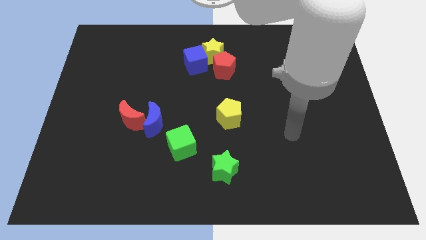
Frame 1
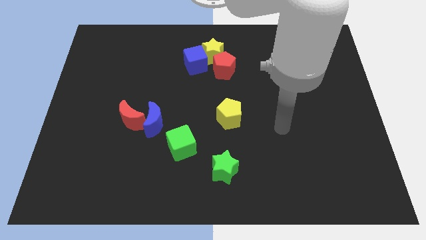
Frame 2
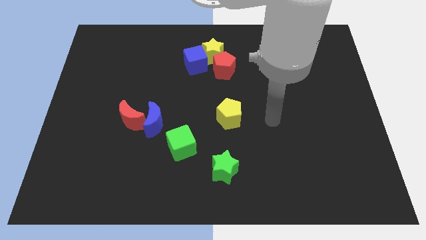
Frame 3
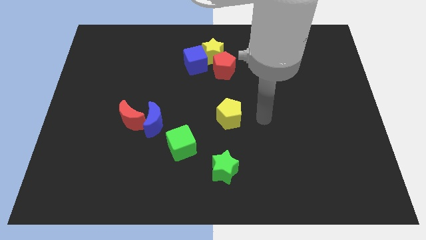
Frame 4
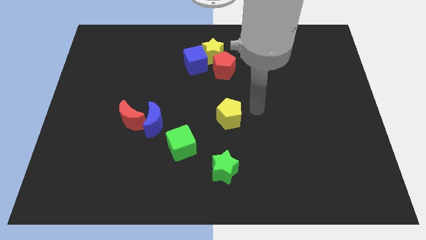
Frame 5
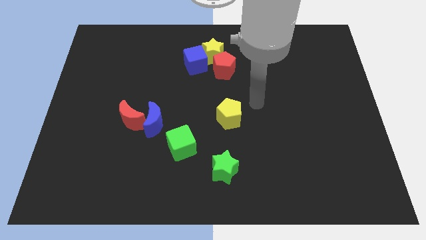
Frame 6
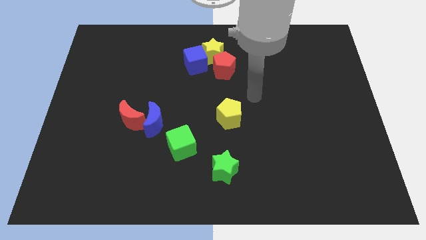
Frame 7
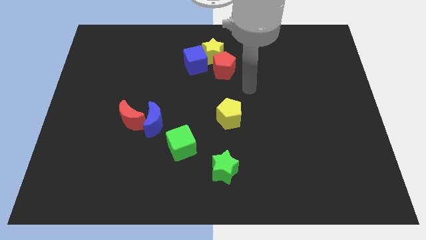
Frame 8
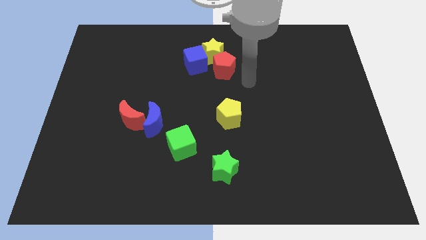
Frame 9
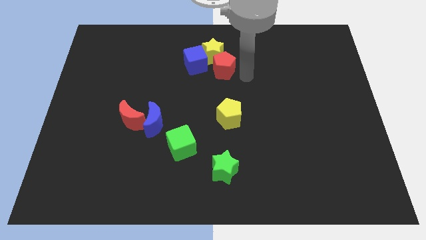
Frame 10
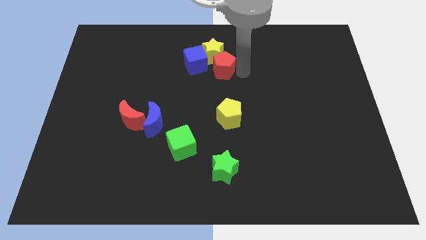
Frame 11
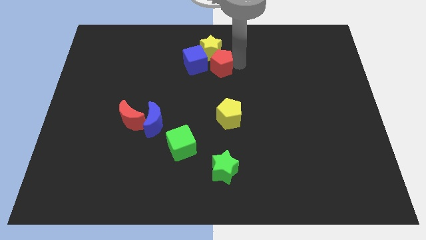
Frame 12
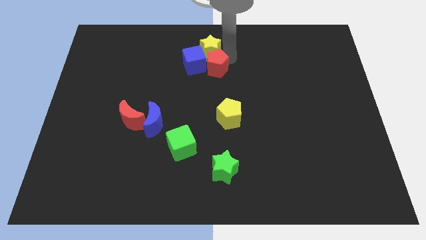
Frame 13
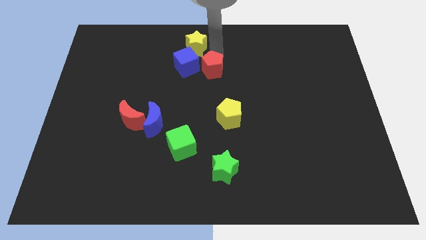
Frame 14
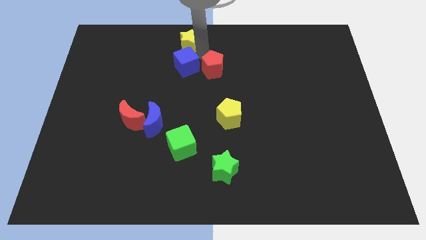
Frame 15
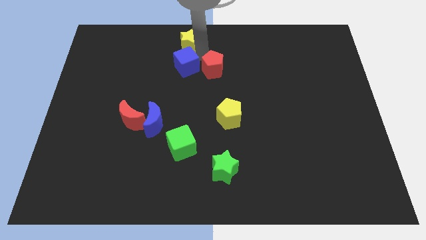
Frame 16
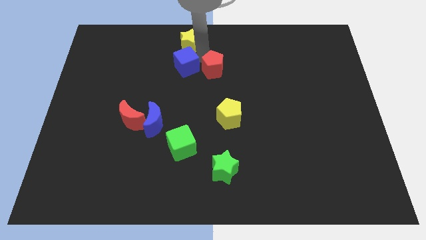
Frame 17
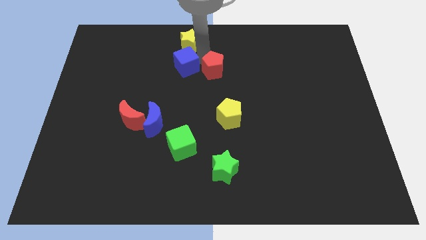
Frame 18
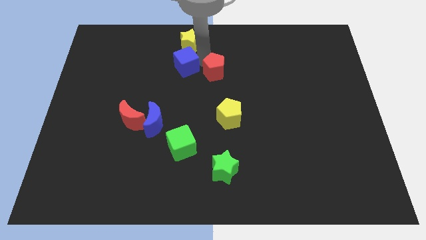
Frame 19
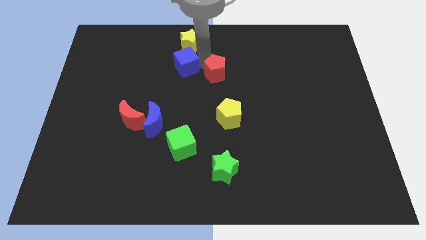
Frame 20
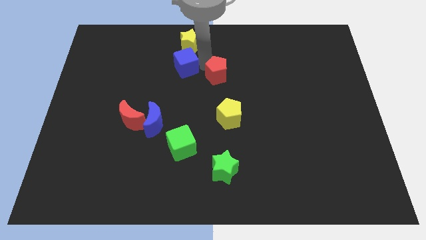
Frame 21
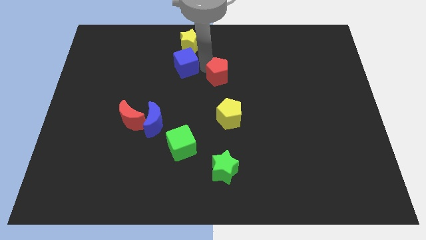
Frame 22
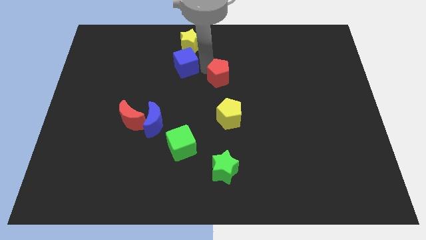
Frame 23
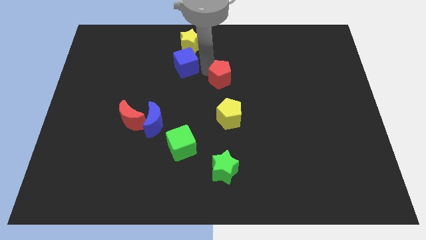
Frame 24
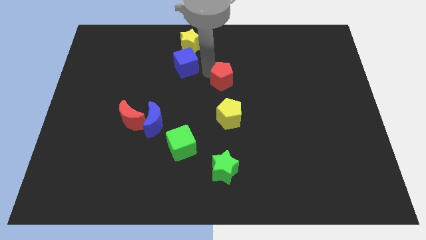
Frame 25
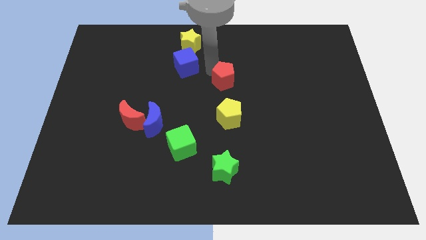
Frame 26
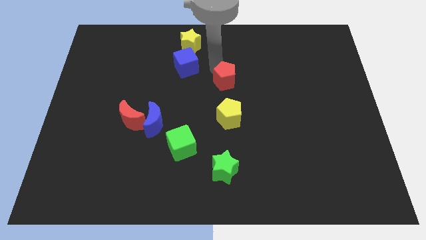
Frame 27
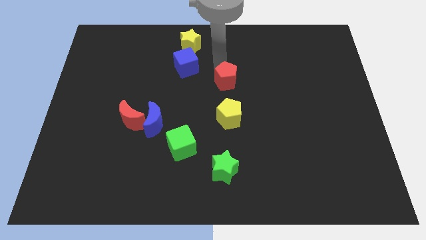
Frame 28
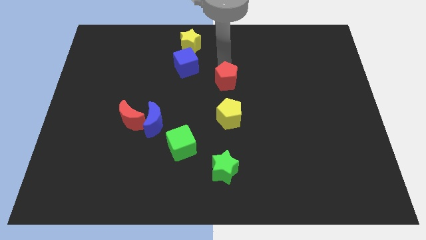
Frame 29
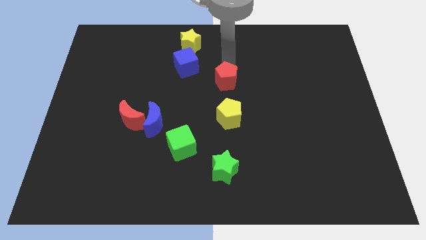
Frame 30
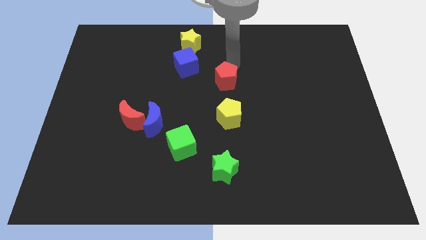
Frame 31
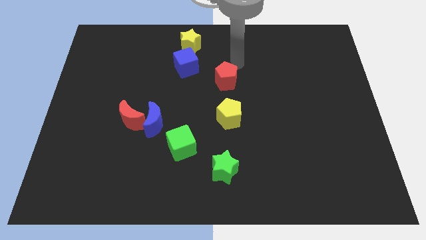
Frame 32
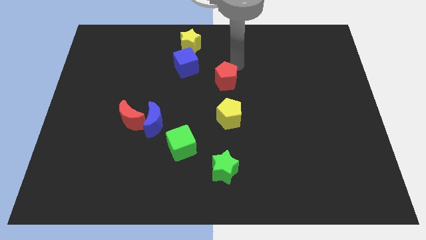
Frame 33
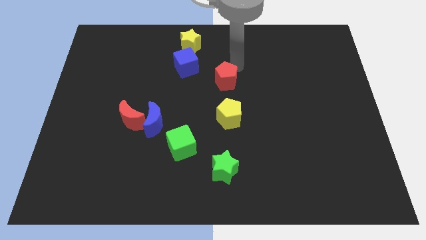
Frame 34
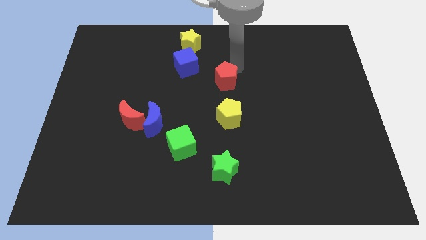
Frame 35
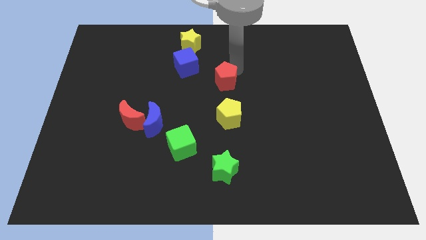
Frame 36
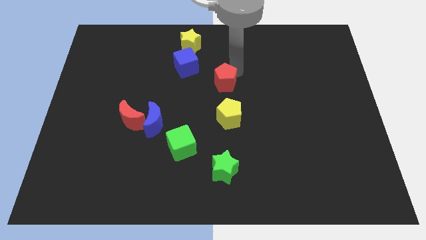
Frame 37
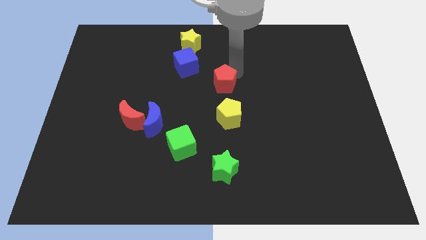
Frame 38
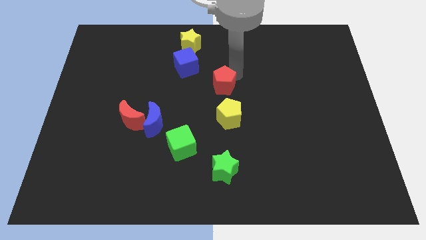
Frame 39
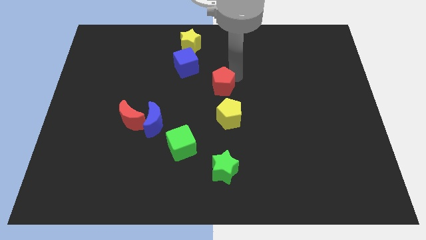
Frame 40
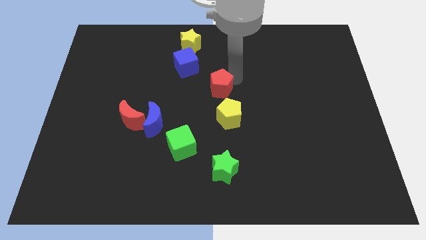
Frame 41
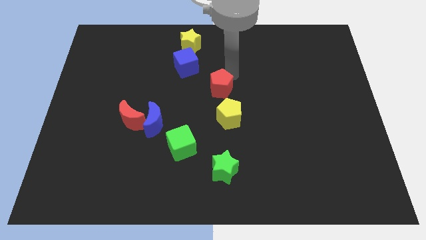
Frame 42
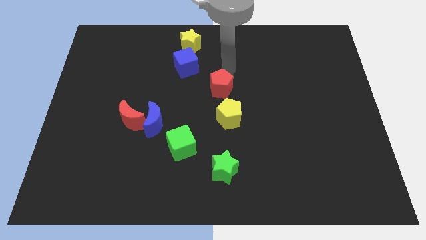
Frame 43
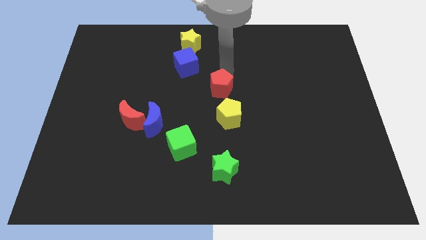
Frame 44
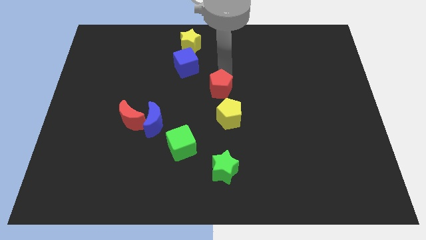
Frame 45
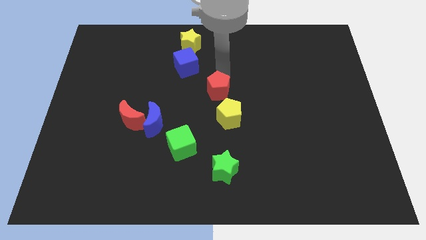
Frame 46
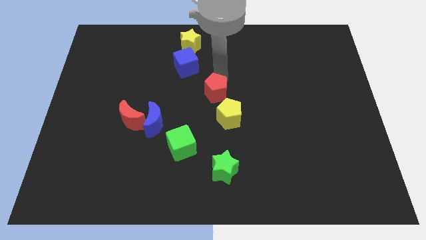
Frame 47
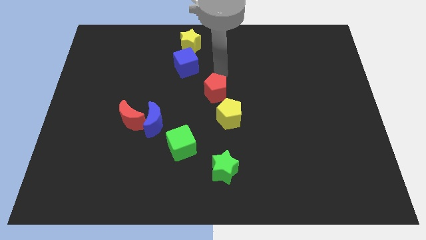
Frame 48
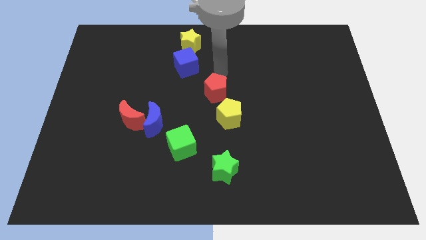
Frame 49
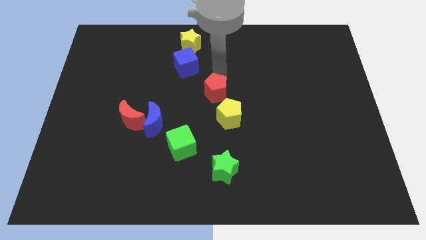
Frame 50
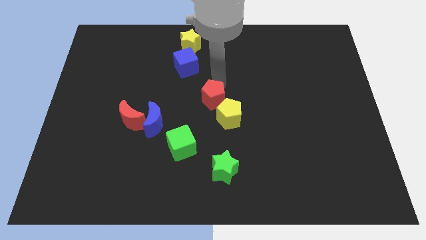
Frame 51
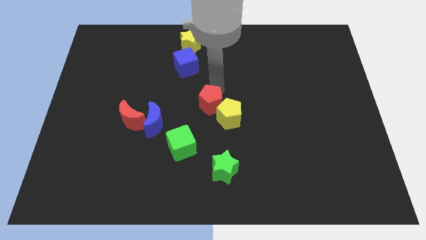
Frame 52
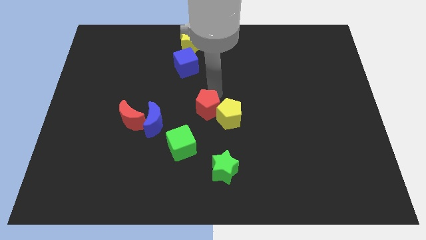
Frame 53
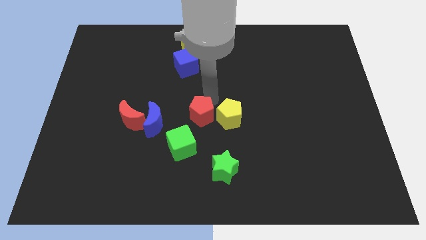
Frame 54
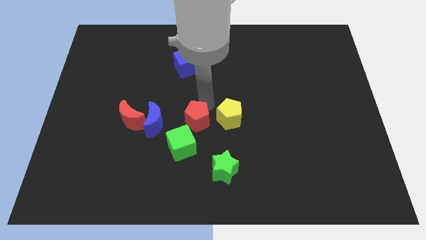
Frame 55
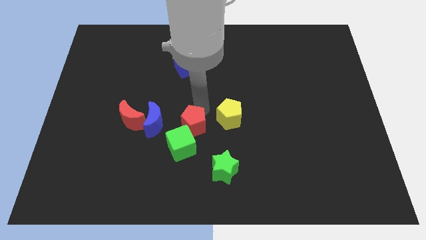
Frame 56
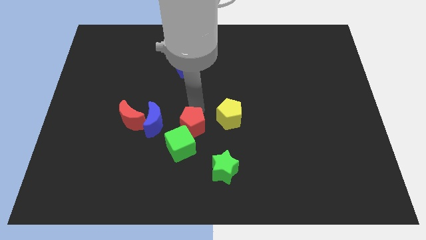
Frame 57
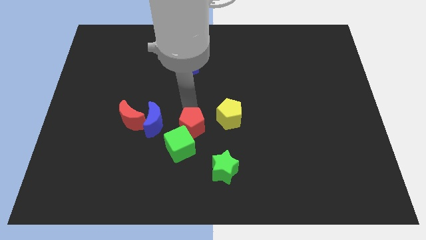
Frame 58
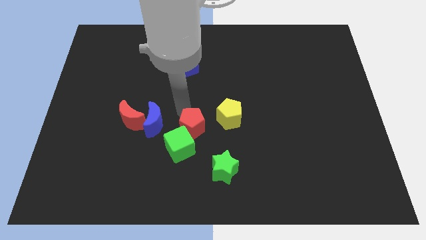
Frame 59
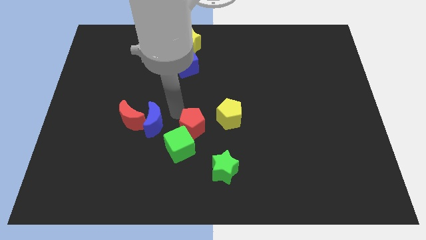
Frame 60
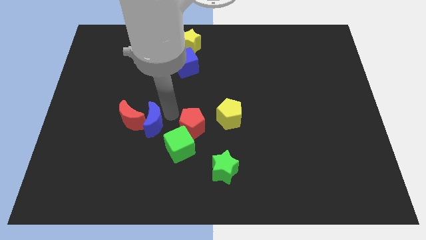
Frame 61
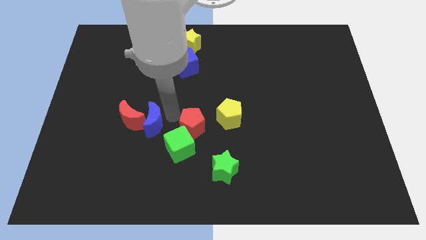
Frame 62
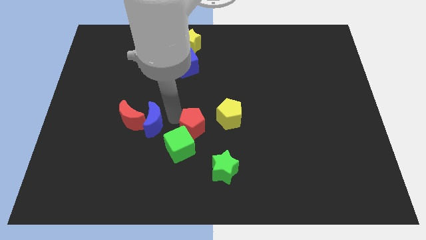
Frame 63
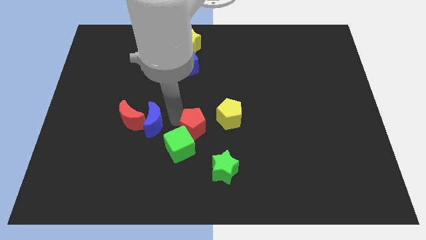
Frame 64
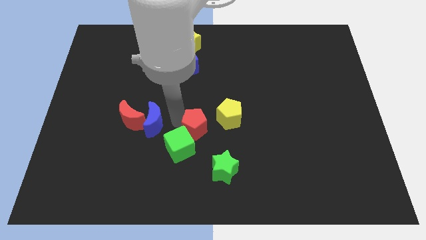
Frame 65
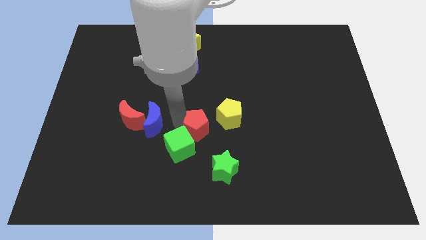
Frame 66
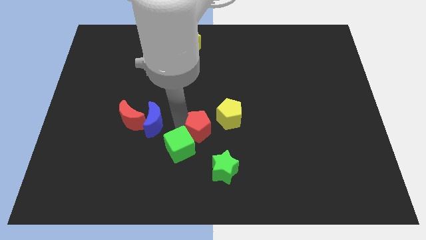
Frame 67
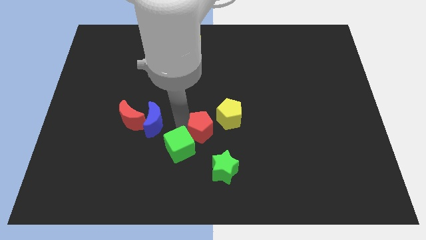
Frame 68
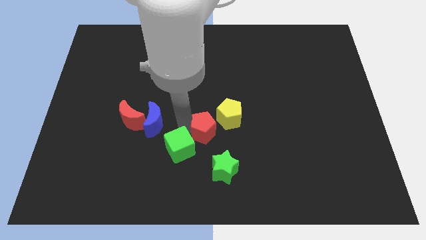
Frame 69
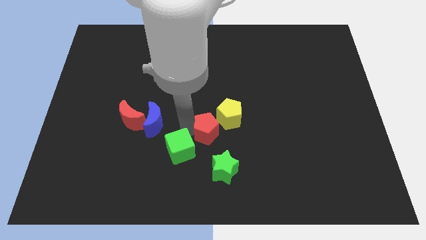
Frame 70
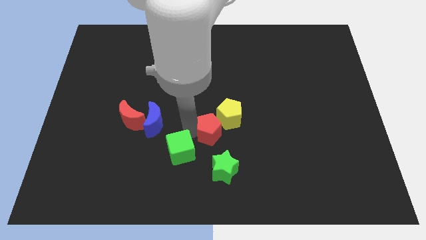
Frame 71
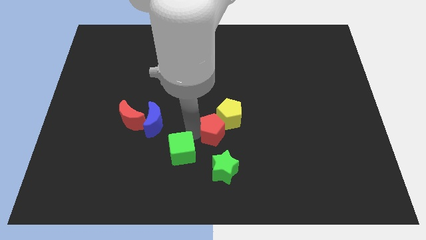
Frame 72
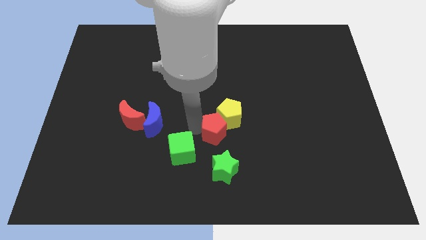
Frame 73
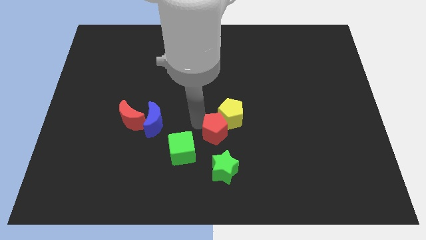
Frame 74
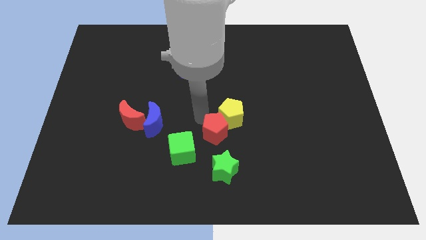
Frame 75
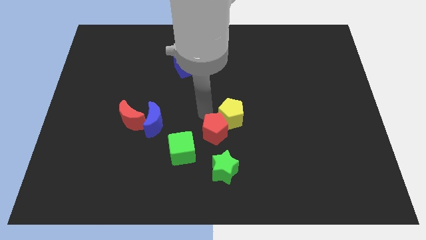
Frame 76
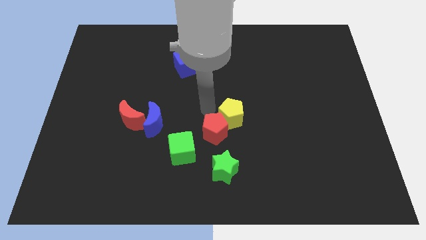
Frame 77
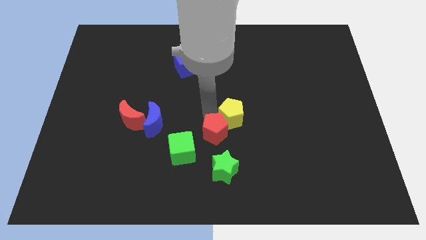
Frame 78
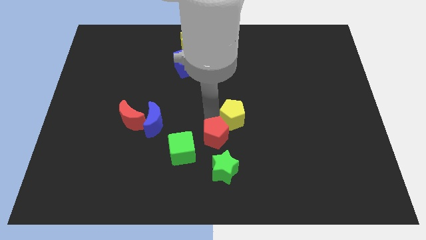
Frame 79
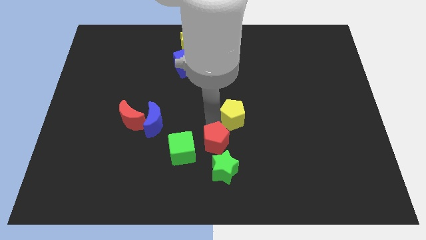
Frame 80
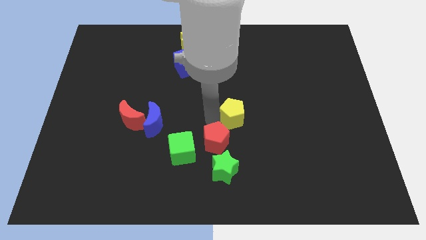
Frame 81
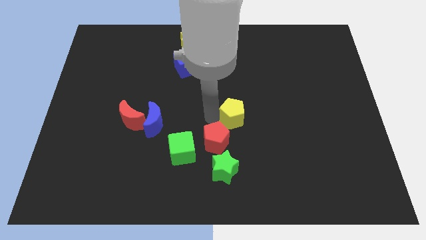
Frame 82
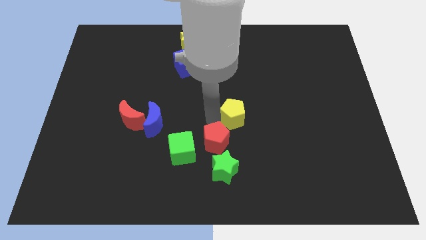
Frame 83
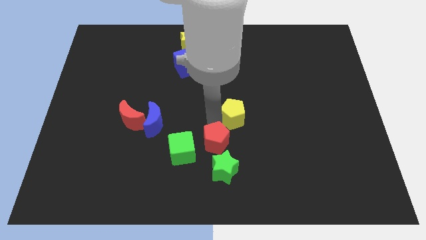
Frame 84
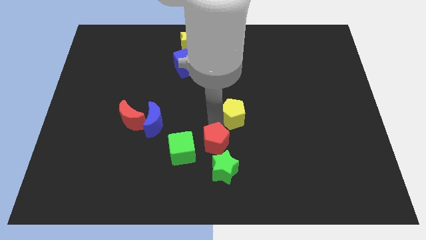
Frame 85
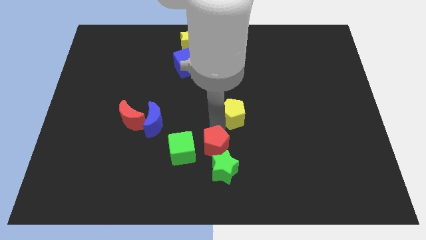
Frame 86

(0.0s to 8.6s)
push the red pentagon close to the green star
